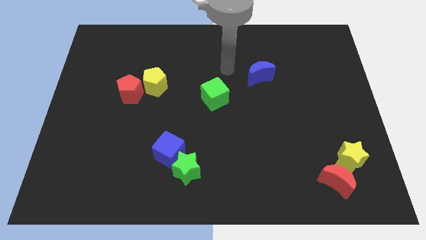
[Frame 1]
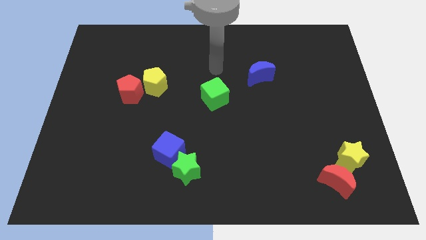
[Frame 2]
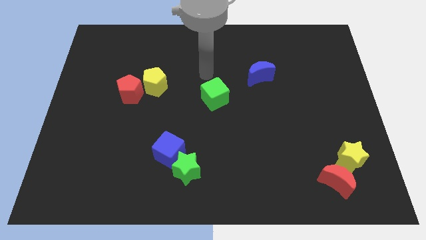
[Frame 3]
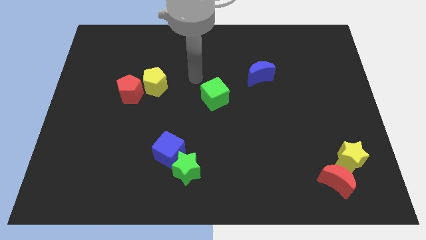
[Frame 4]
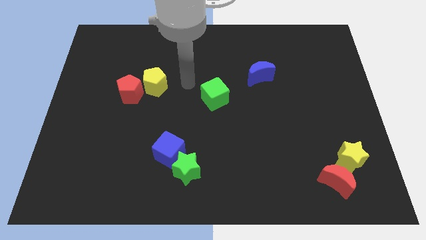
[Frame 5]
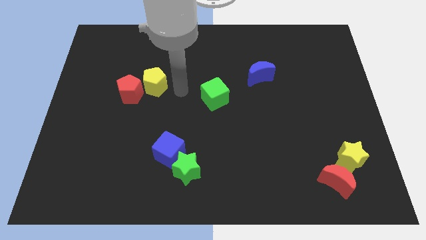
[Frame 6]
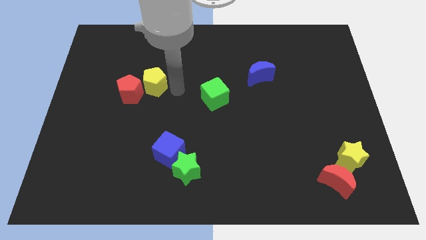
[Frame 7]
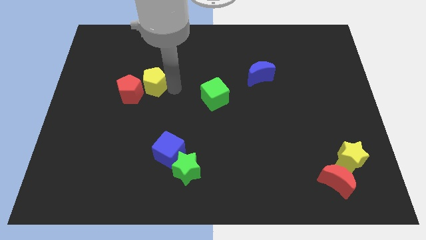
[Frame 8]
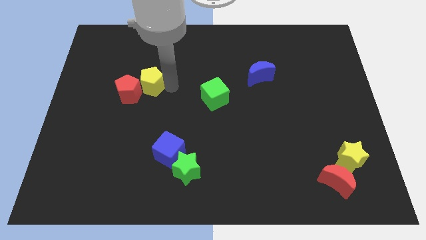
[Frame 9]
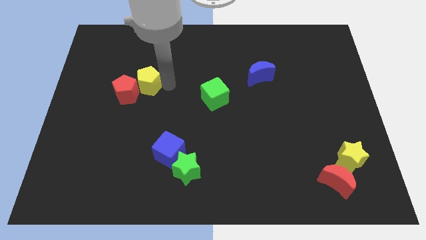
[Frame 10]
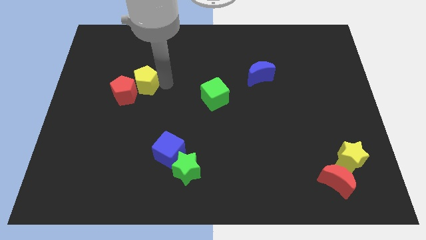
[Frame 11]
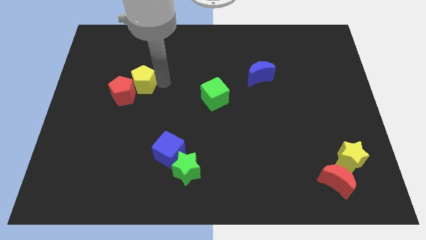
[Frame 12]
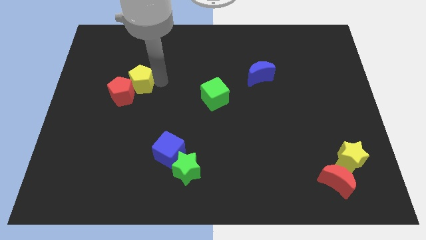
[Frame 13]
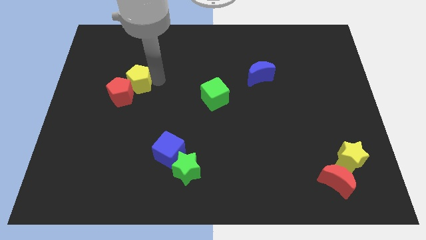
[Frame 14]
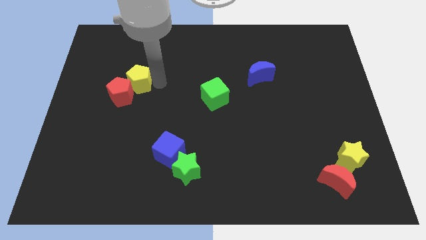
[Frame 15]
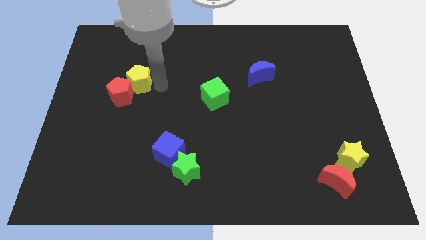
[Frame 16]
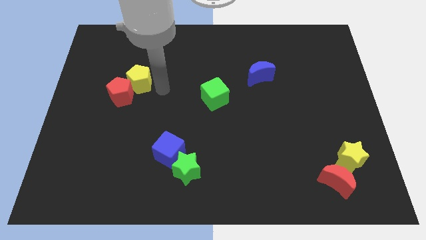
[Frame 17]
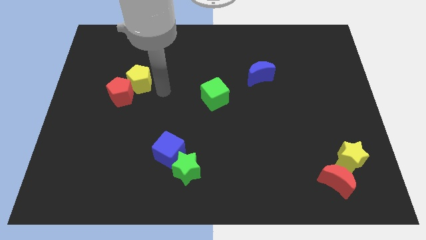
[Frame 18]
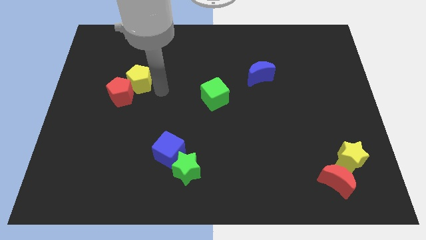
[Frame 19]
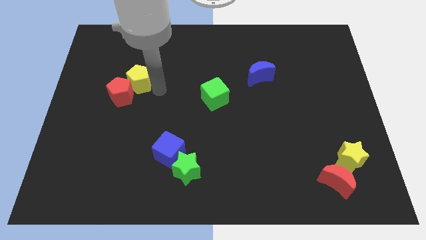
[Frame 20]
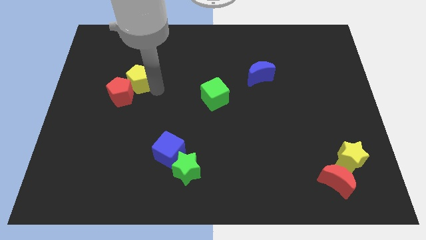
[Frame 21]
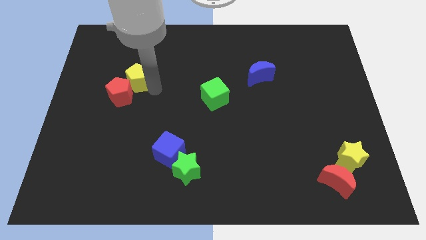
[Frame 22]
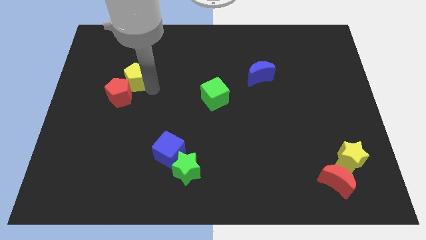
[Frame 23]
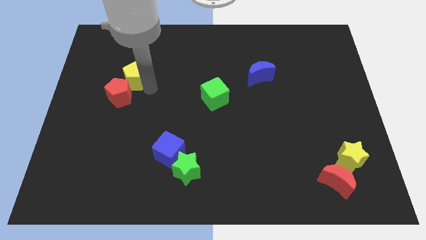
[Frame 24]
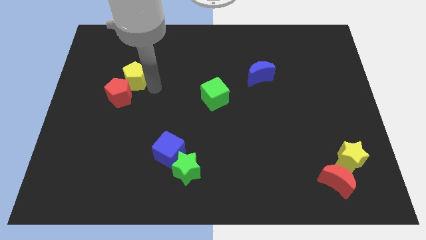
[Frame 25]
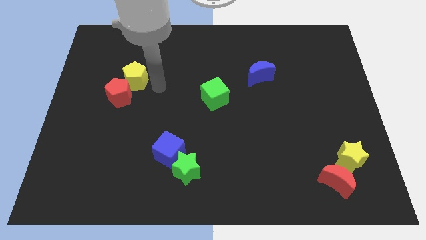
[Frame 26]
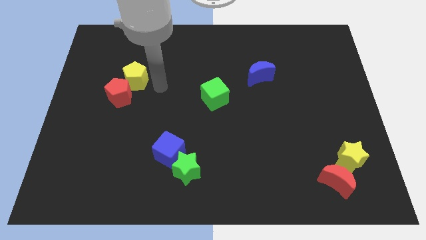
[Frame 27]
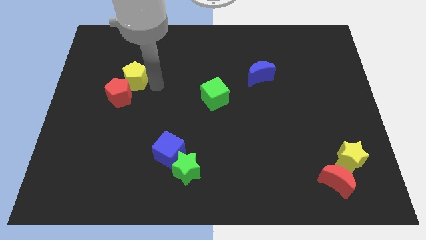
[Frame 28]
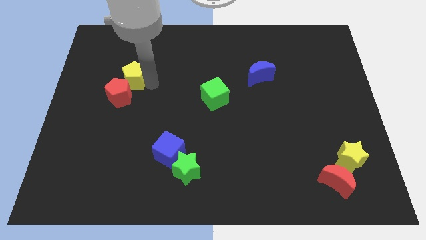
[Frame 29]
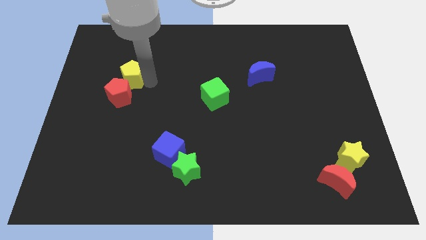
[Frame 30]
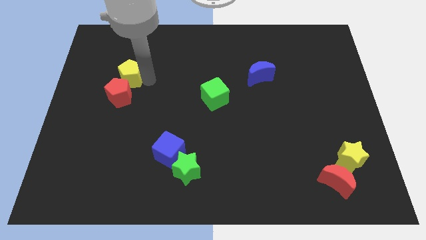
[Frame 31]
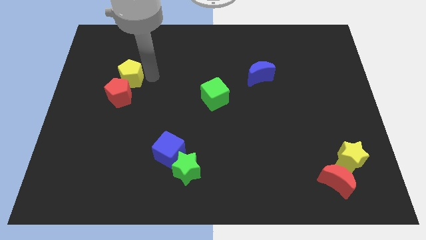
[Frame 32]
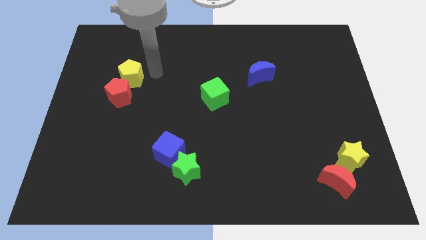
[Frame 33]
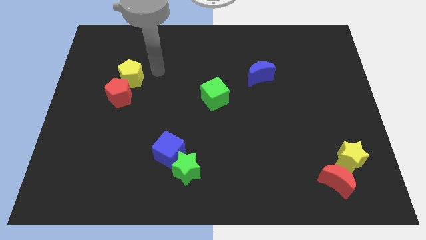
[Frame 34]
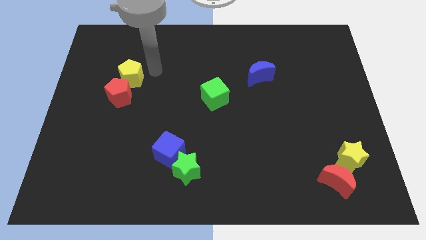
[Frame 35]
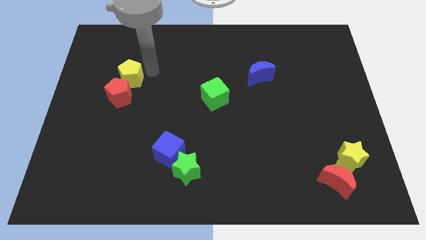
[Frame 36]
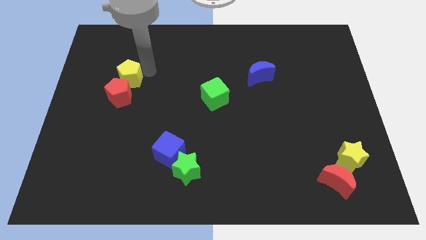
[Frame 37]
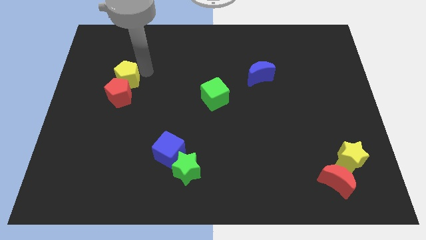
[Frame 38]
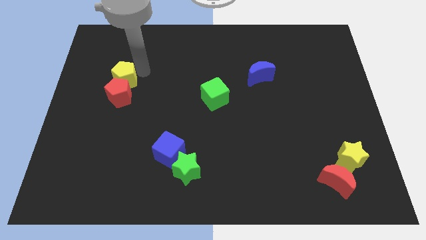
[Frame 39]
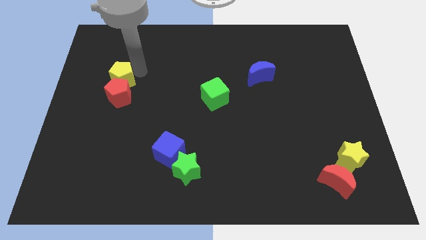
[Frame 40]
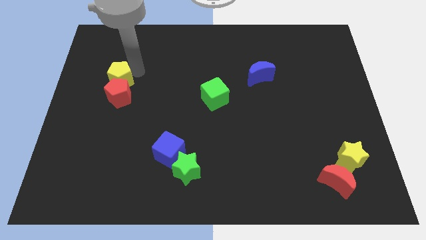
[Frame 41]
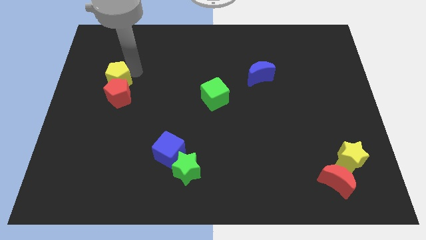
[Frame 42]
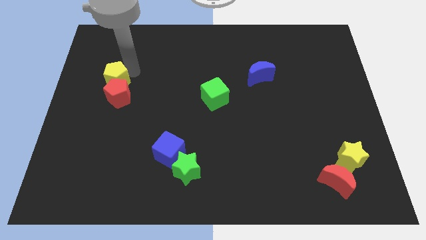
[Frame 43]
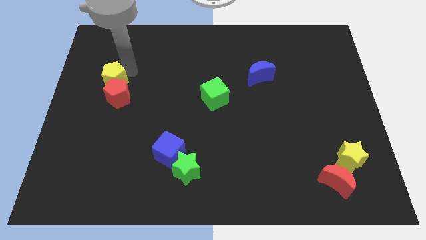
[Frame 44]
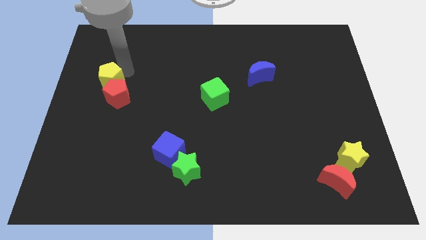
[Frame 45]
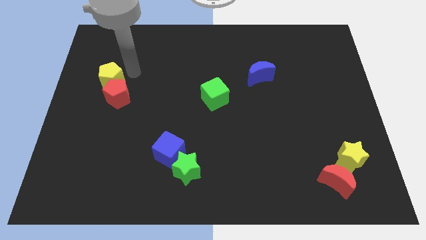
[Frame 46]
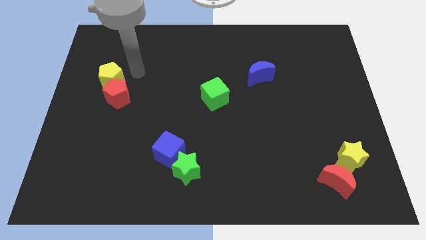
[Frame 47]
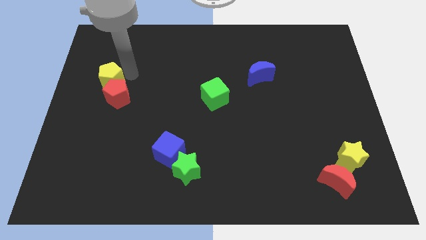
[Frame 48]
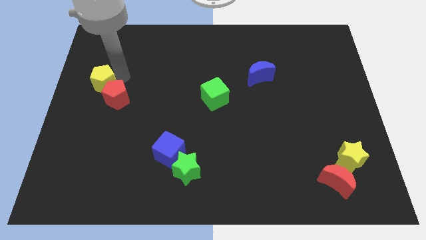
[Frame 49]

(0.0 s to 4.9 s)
move the yellow pentagon to the left side

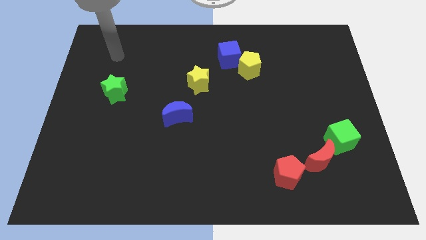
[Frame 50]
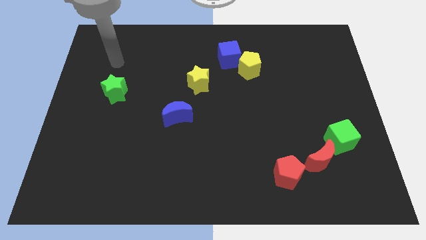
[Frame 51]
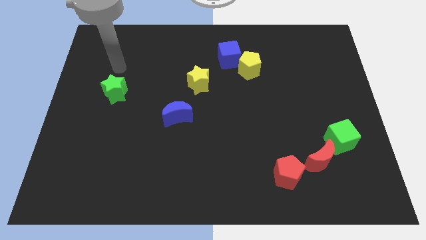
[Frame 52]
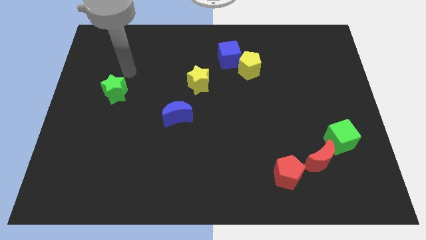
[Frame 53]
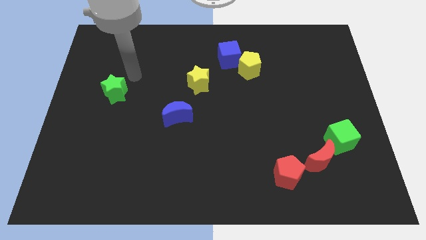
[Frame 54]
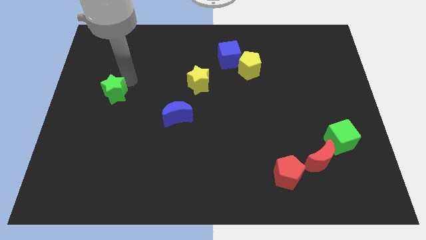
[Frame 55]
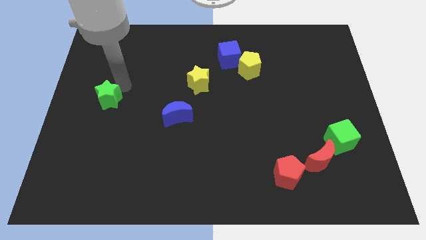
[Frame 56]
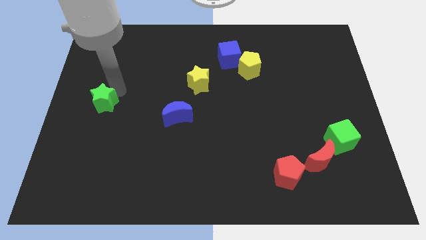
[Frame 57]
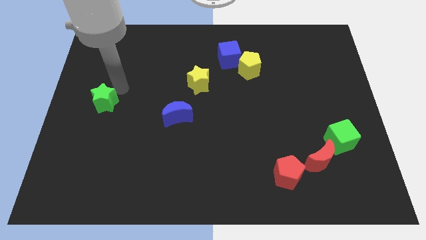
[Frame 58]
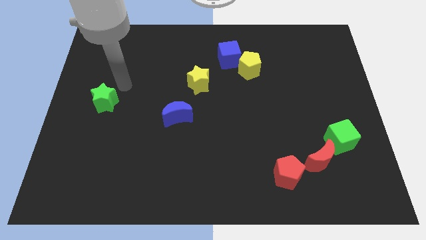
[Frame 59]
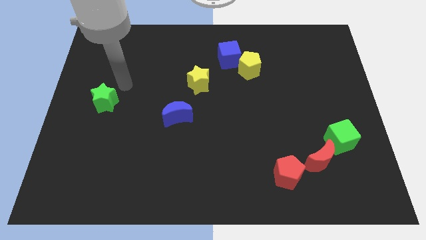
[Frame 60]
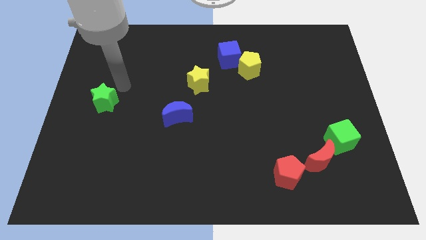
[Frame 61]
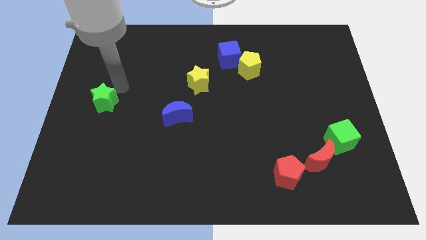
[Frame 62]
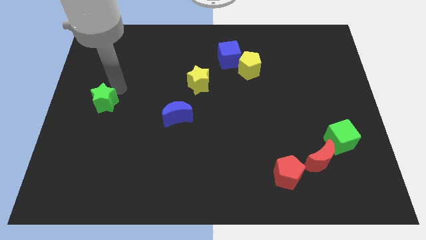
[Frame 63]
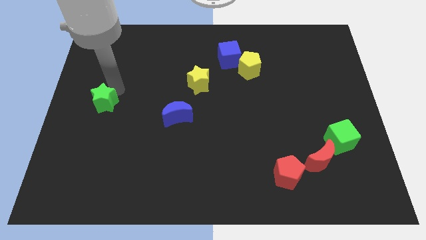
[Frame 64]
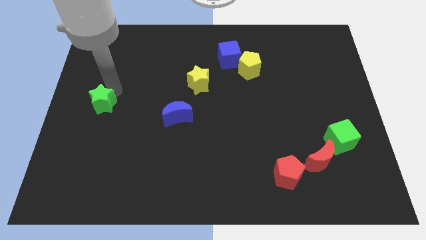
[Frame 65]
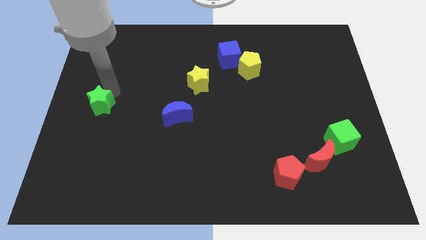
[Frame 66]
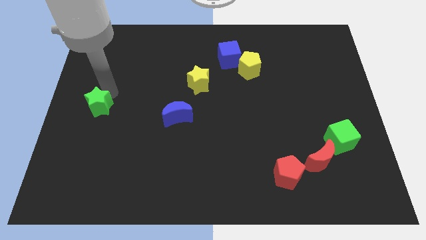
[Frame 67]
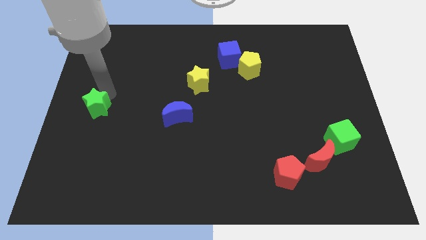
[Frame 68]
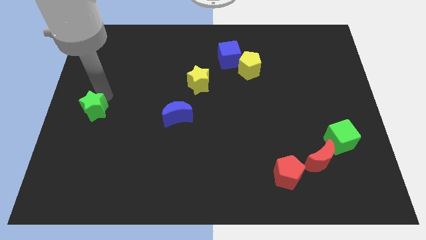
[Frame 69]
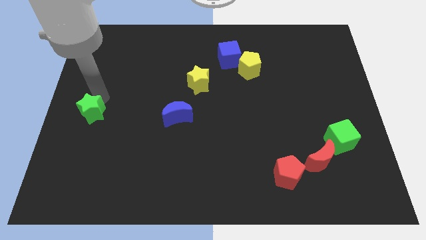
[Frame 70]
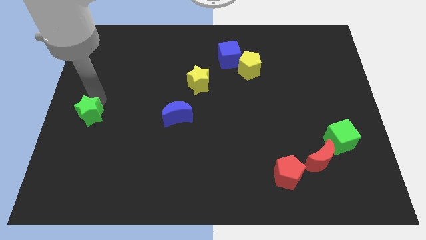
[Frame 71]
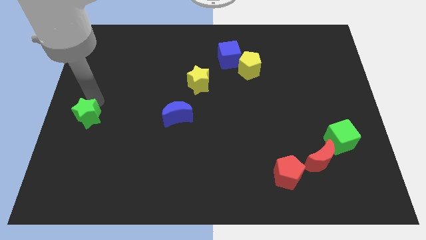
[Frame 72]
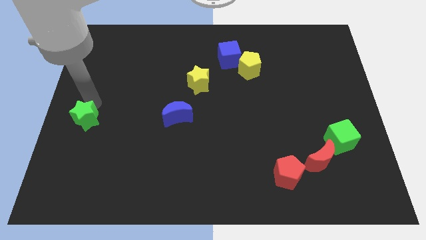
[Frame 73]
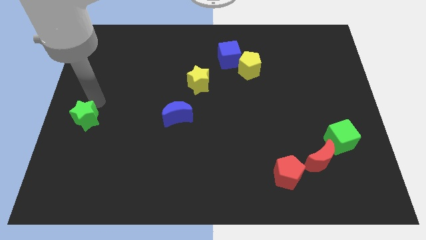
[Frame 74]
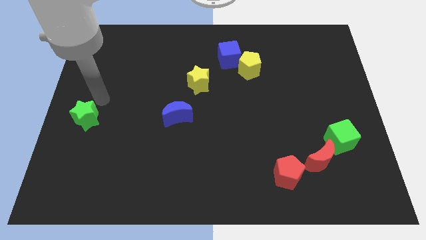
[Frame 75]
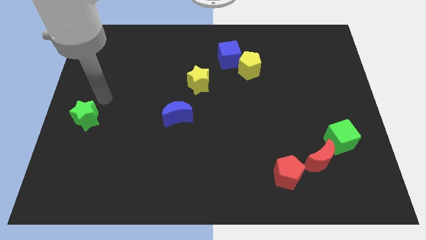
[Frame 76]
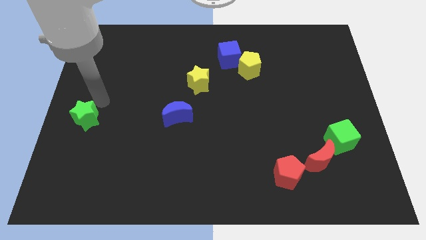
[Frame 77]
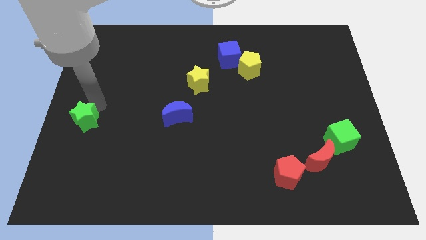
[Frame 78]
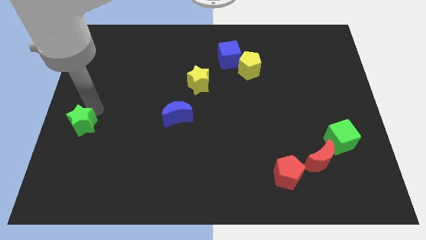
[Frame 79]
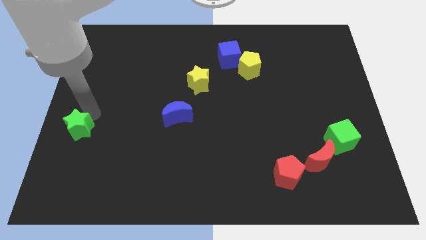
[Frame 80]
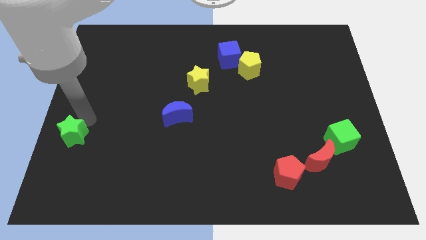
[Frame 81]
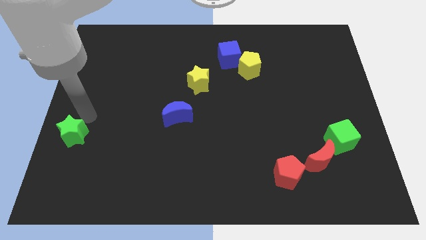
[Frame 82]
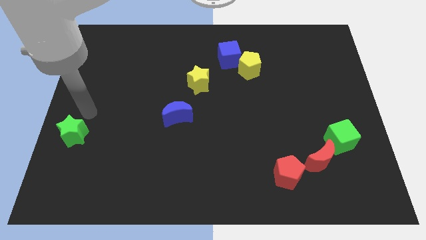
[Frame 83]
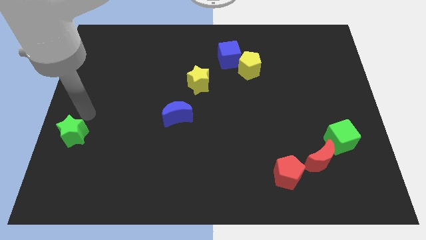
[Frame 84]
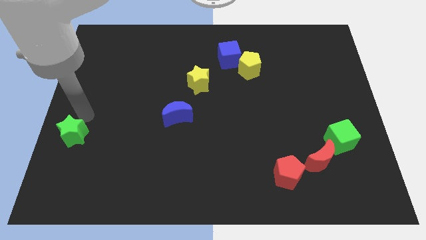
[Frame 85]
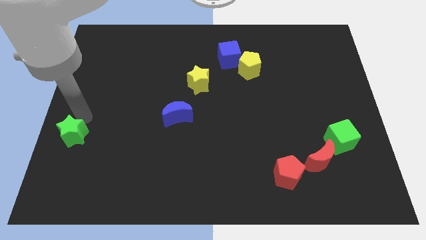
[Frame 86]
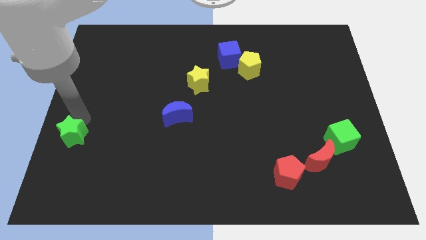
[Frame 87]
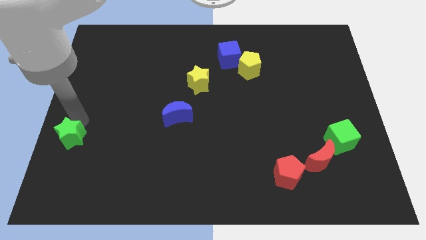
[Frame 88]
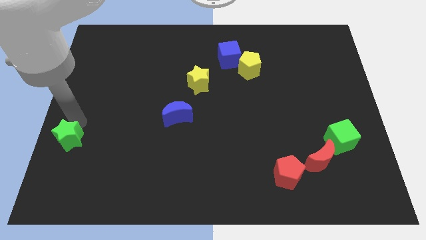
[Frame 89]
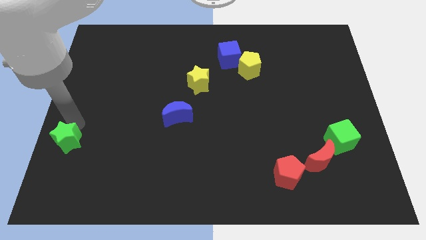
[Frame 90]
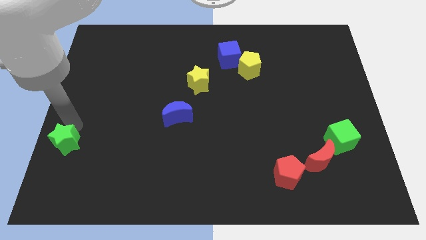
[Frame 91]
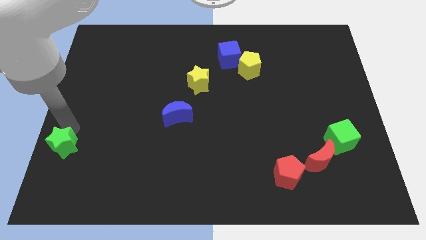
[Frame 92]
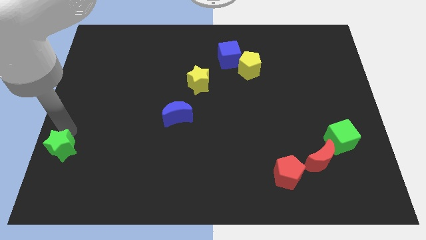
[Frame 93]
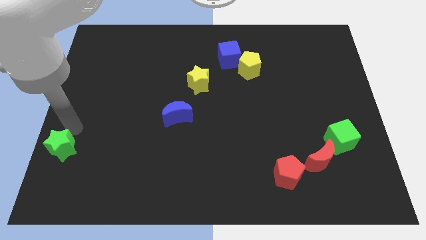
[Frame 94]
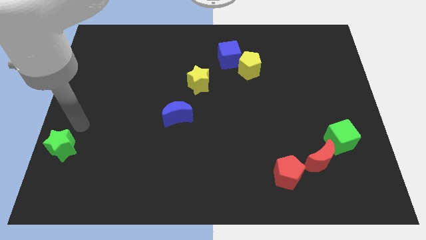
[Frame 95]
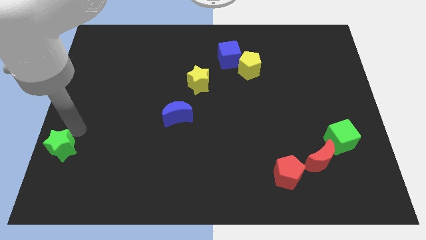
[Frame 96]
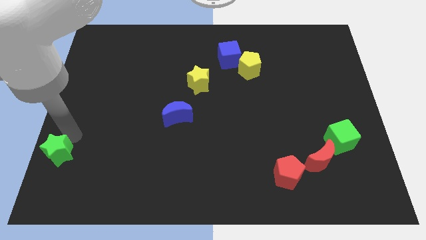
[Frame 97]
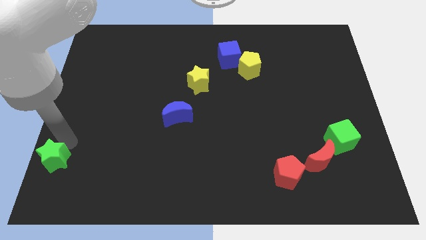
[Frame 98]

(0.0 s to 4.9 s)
put the green star to the bottom left corner
